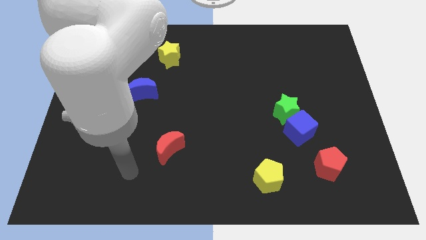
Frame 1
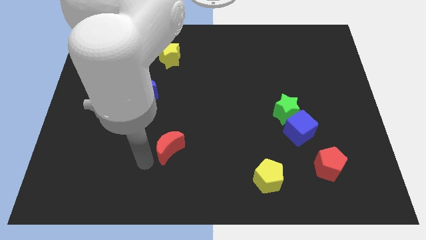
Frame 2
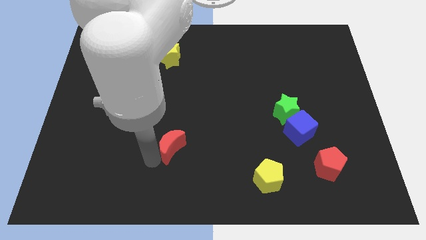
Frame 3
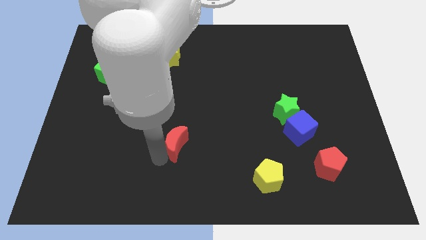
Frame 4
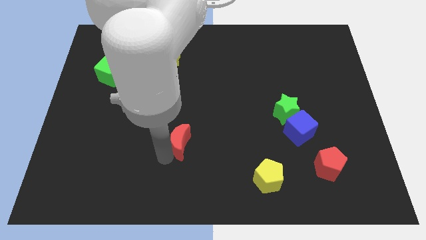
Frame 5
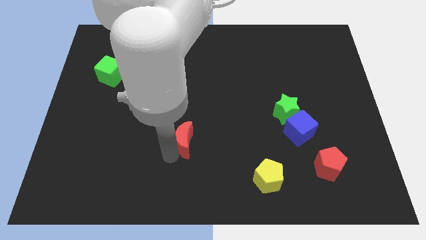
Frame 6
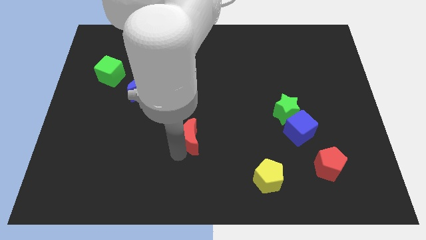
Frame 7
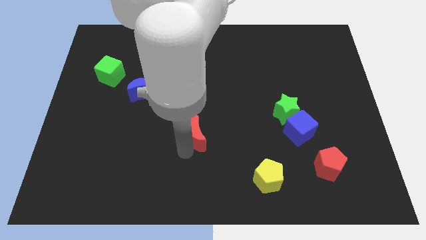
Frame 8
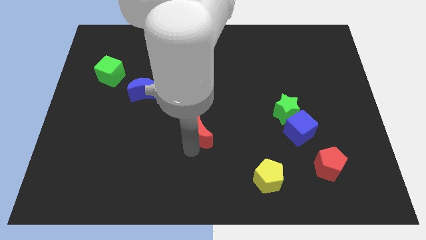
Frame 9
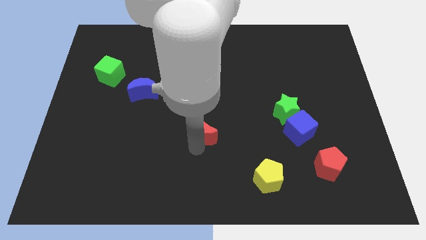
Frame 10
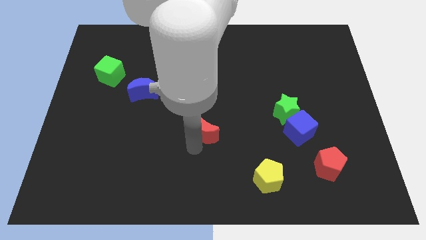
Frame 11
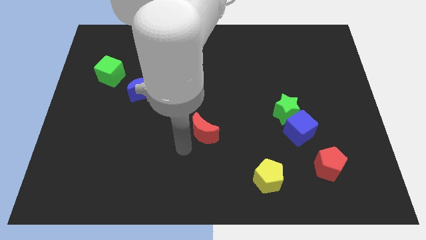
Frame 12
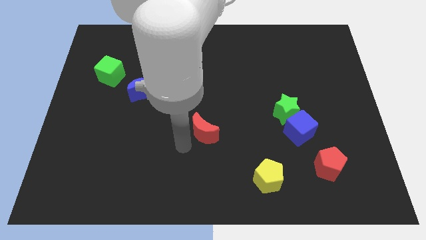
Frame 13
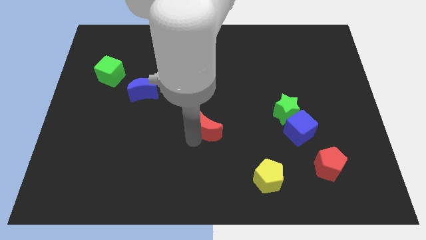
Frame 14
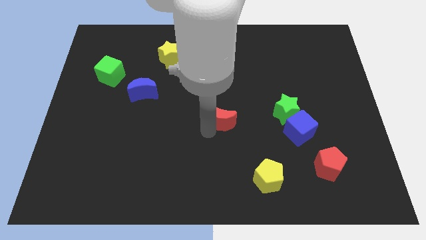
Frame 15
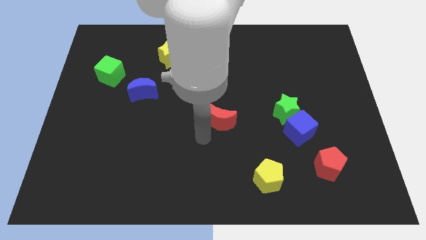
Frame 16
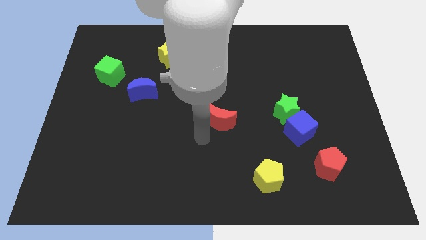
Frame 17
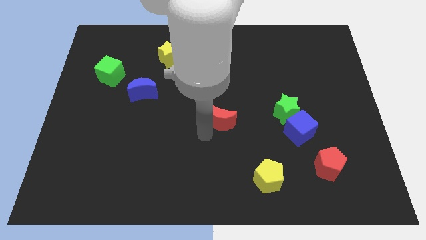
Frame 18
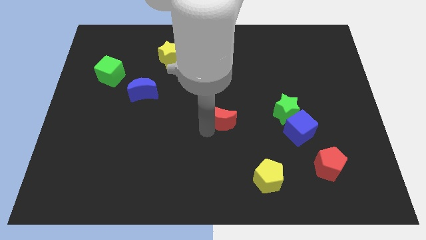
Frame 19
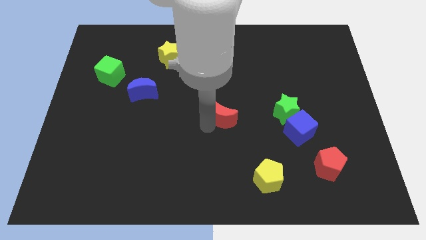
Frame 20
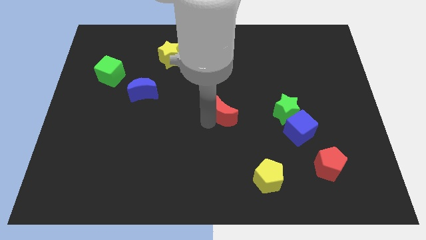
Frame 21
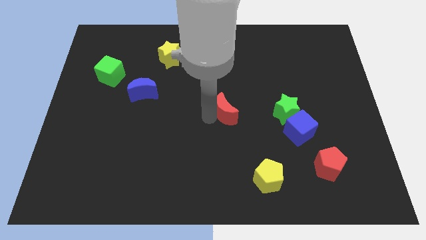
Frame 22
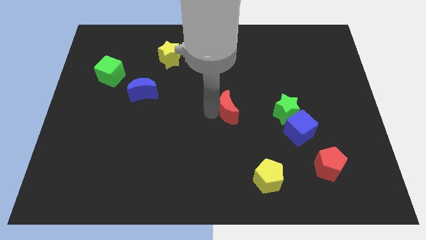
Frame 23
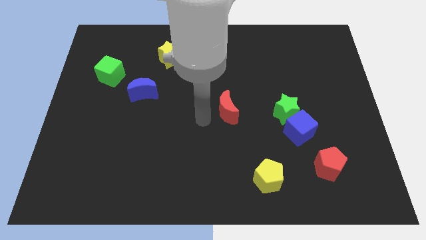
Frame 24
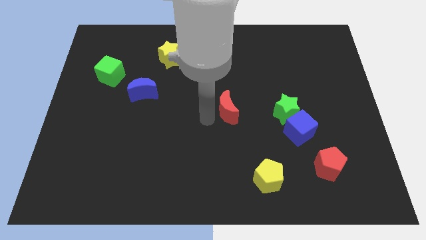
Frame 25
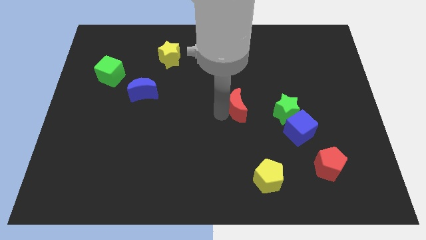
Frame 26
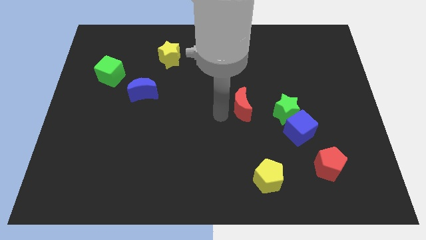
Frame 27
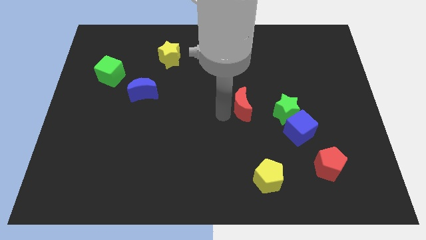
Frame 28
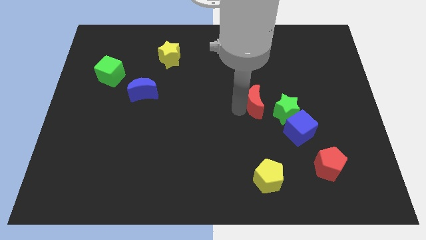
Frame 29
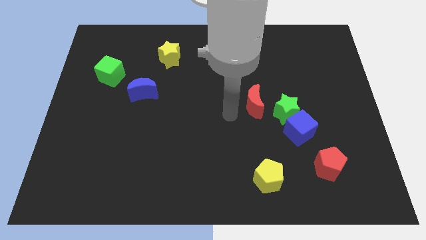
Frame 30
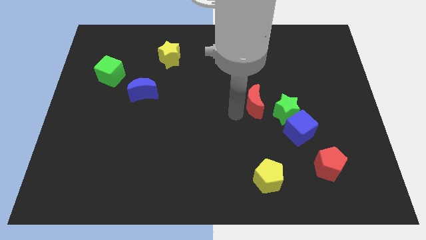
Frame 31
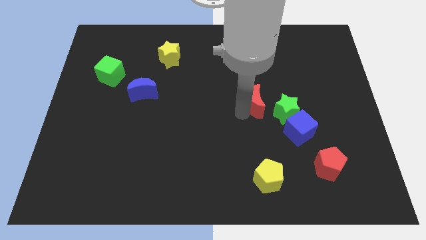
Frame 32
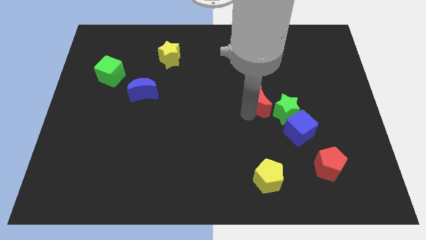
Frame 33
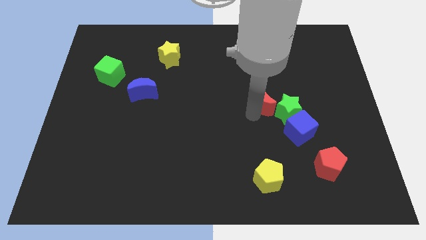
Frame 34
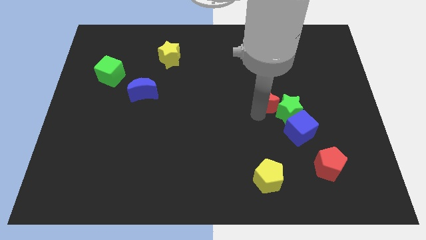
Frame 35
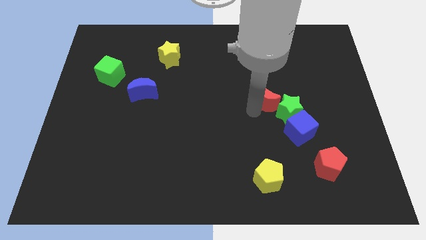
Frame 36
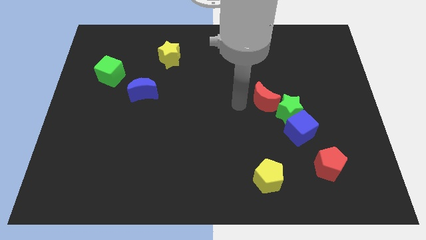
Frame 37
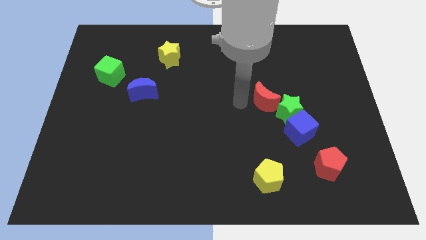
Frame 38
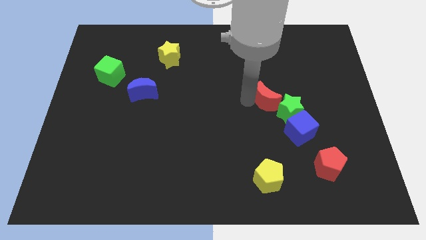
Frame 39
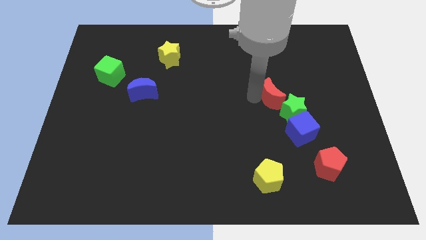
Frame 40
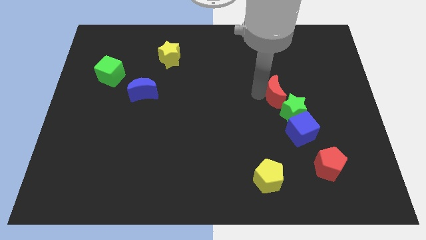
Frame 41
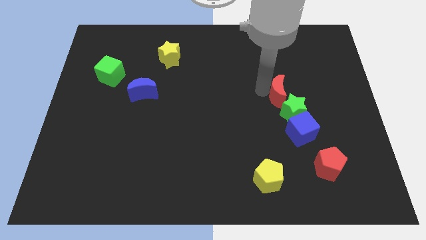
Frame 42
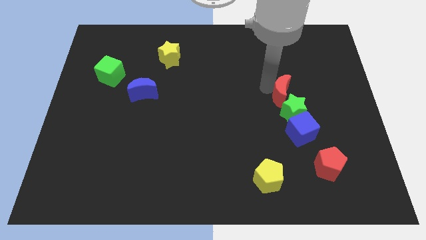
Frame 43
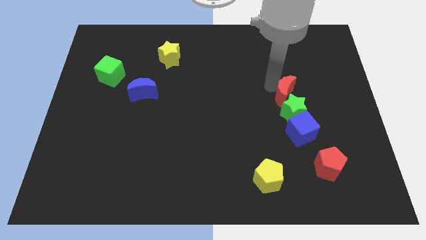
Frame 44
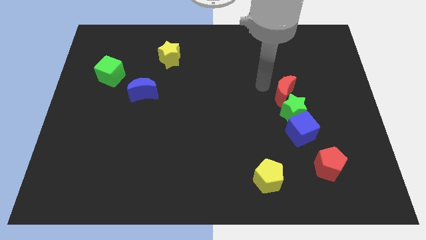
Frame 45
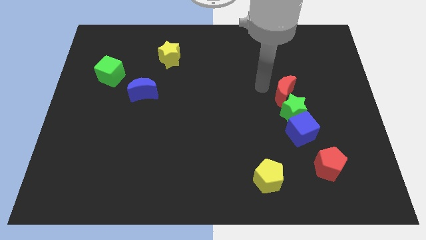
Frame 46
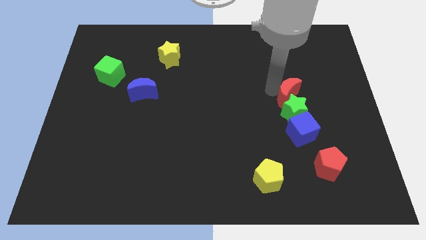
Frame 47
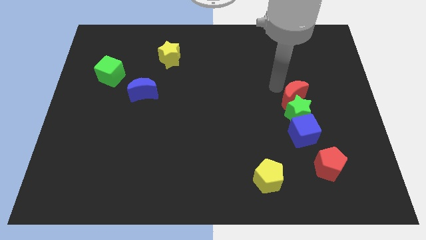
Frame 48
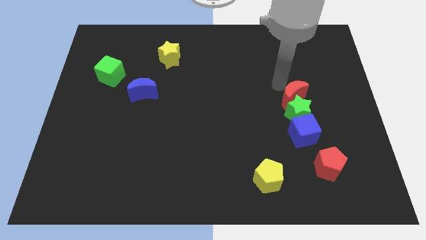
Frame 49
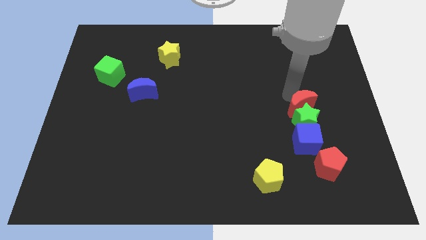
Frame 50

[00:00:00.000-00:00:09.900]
slide the red moon to the right

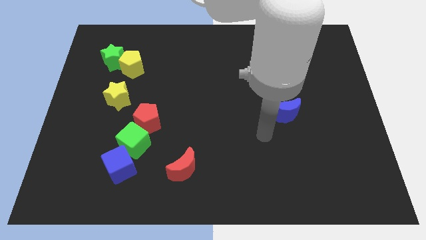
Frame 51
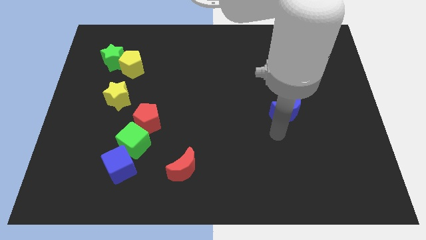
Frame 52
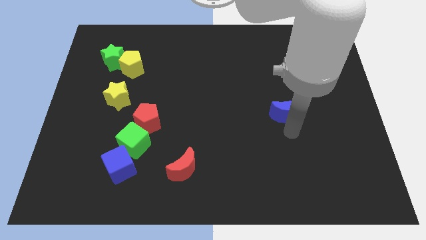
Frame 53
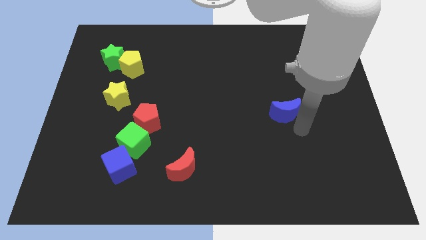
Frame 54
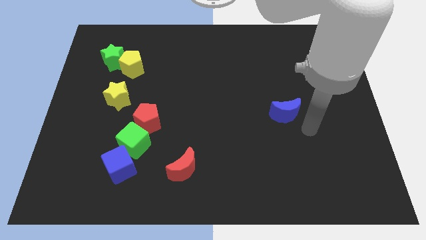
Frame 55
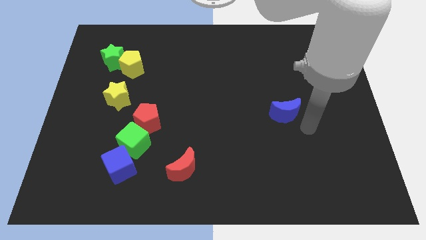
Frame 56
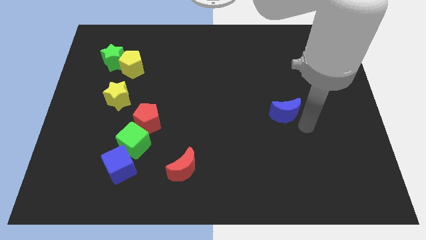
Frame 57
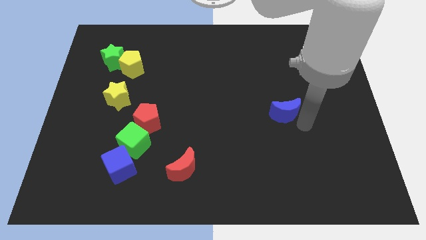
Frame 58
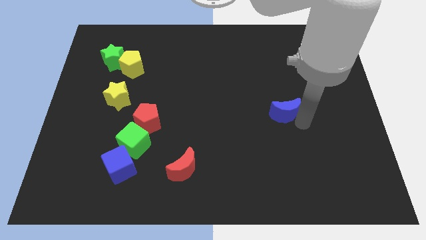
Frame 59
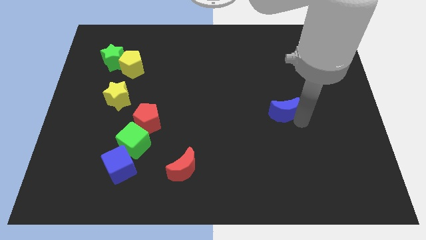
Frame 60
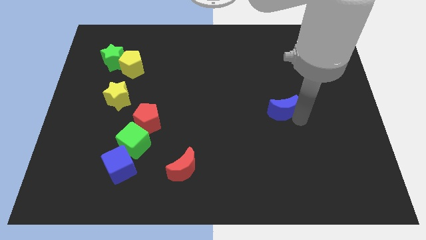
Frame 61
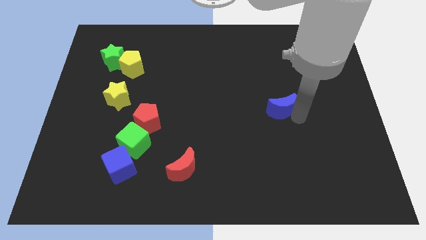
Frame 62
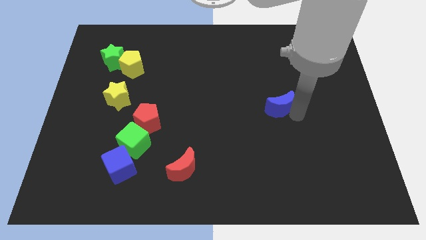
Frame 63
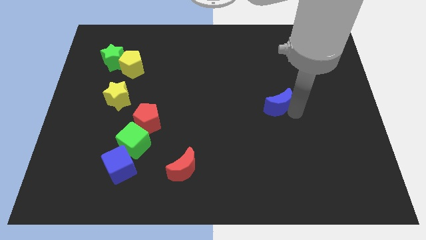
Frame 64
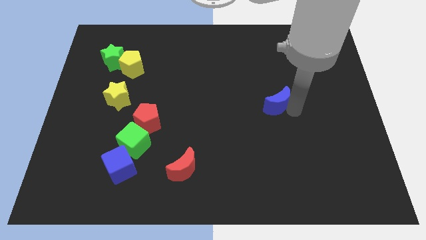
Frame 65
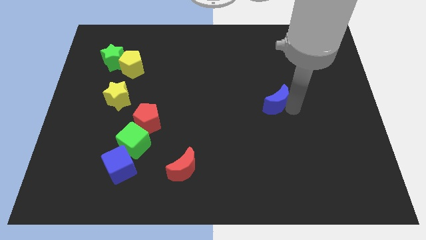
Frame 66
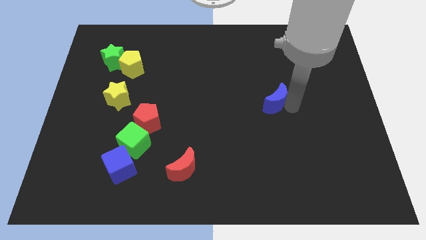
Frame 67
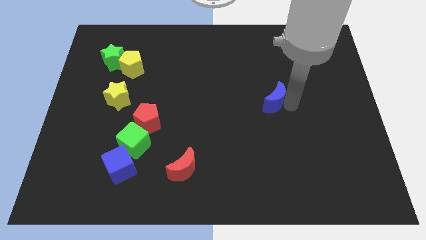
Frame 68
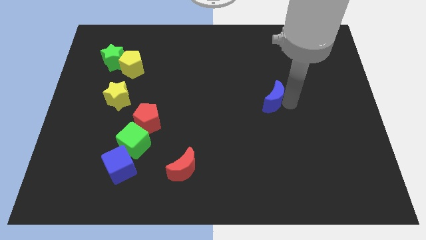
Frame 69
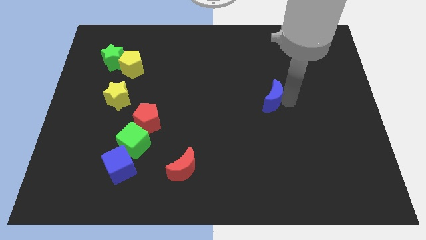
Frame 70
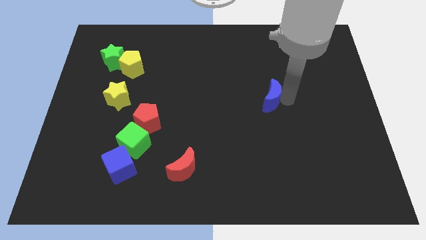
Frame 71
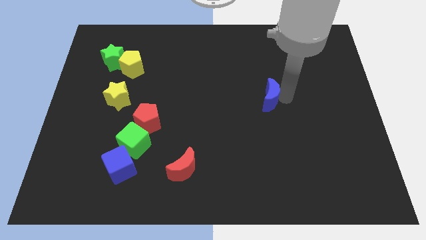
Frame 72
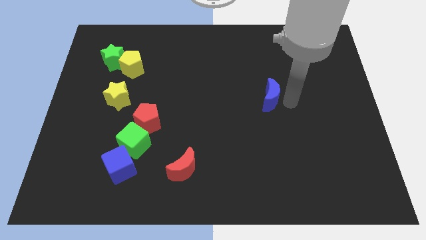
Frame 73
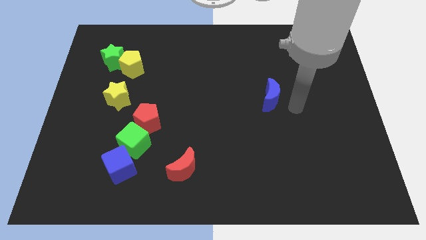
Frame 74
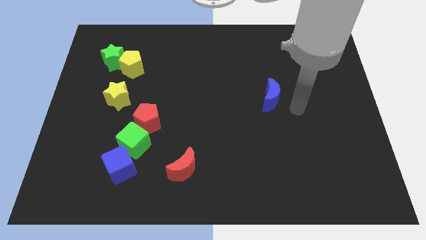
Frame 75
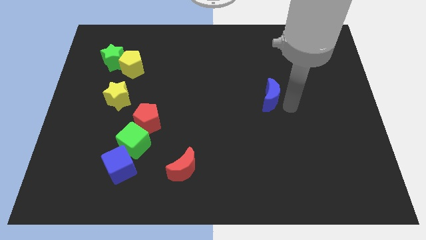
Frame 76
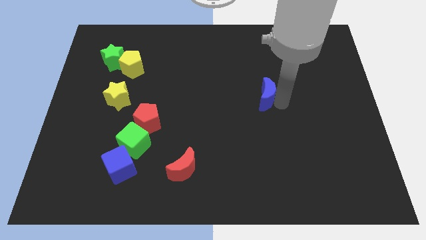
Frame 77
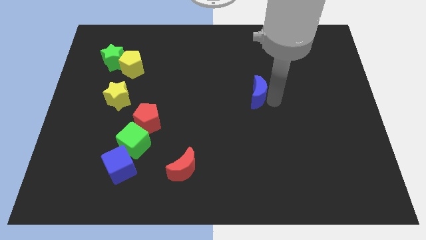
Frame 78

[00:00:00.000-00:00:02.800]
slide the blue moon a bit diagonally up and left

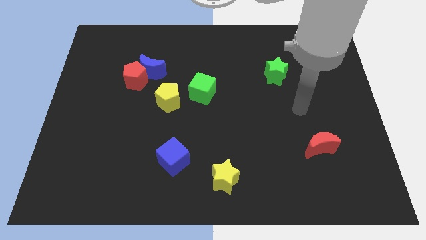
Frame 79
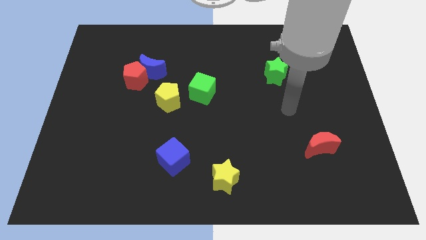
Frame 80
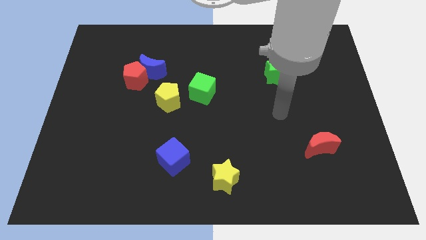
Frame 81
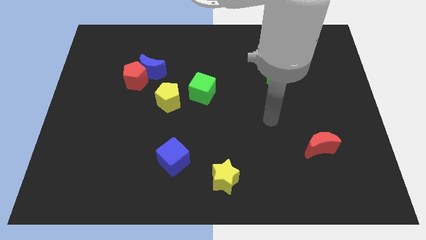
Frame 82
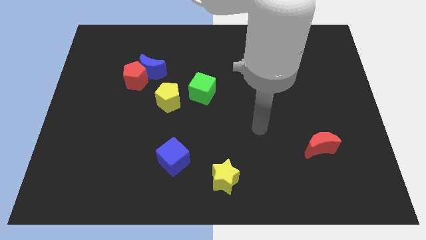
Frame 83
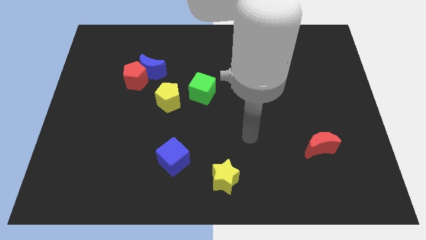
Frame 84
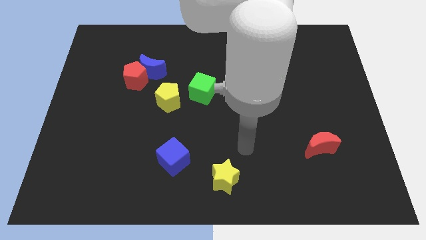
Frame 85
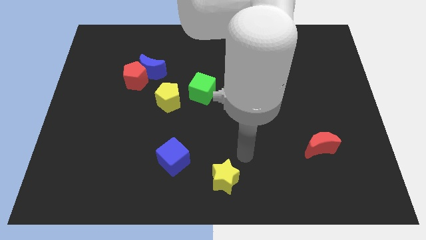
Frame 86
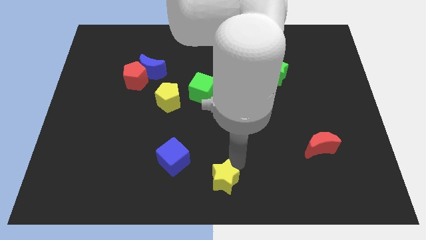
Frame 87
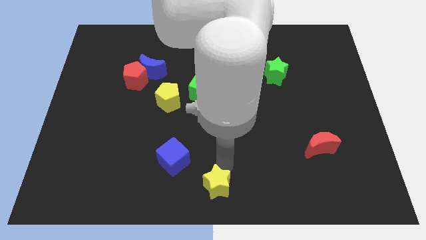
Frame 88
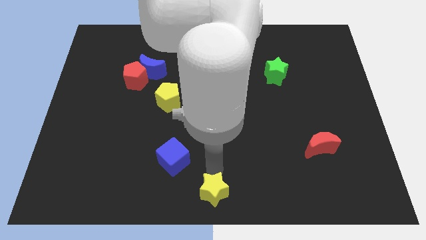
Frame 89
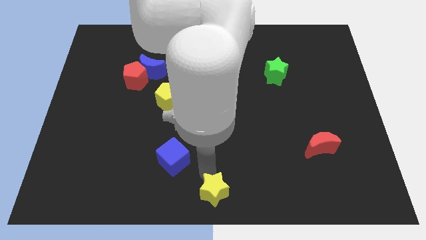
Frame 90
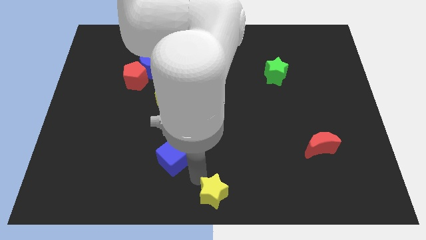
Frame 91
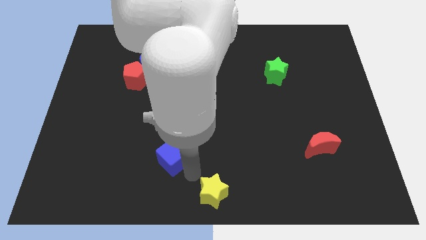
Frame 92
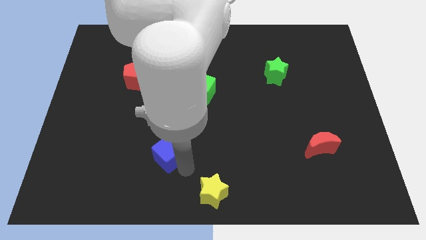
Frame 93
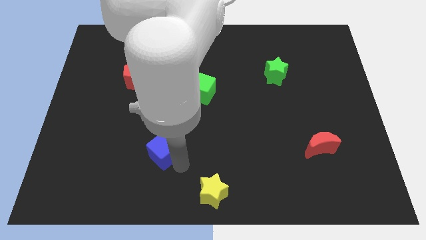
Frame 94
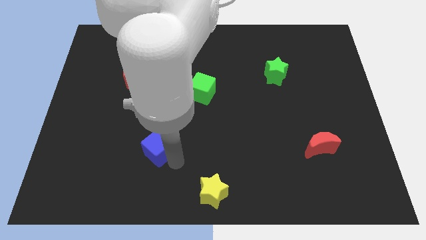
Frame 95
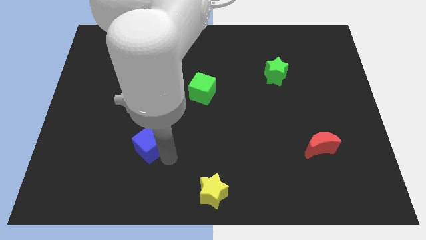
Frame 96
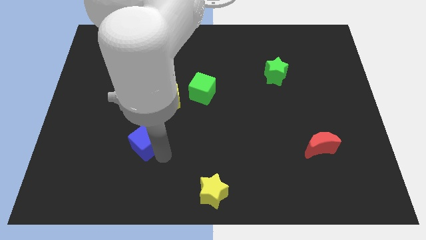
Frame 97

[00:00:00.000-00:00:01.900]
slide the blue cube diagonally up and to the left a little
